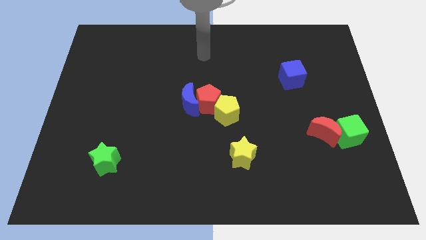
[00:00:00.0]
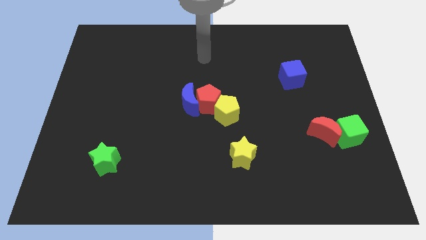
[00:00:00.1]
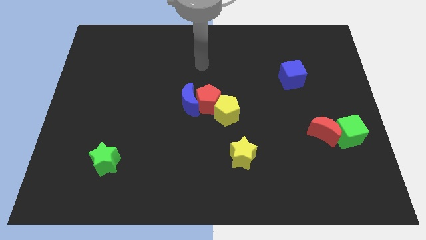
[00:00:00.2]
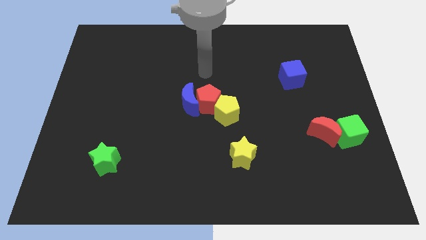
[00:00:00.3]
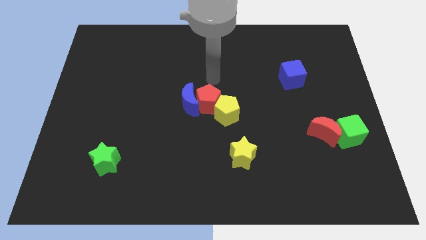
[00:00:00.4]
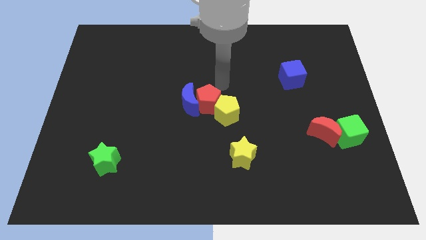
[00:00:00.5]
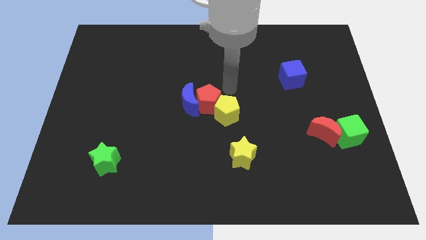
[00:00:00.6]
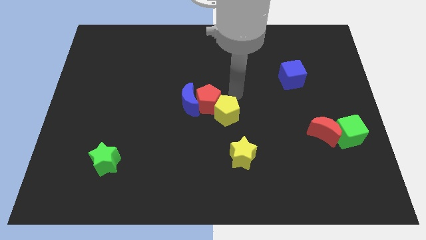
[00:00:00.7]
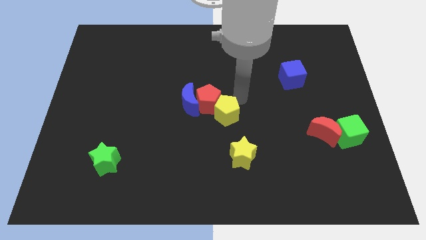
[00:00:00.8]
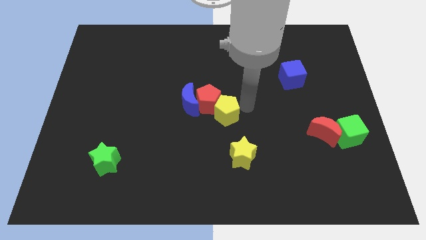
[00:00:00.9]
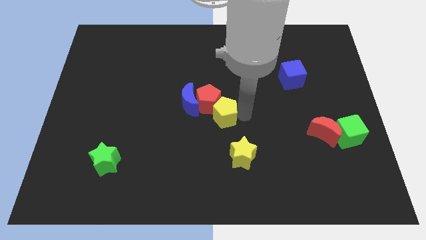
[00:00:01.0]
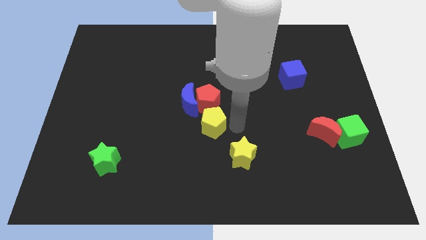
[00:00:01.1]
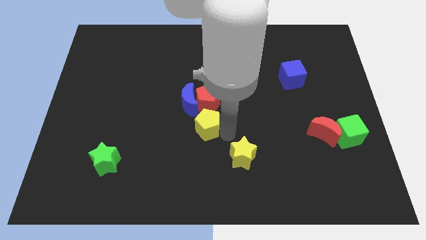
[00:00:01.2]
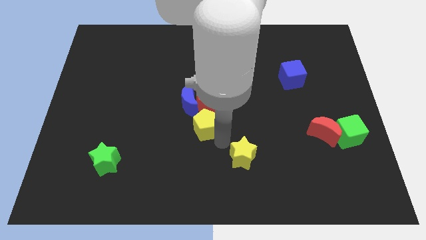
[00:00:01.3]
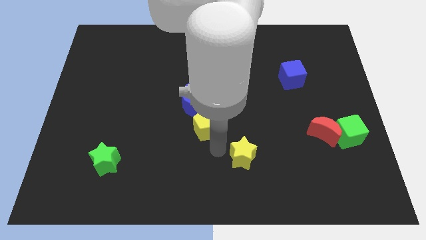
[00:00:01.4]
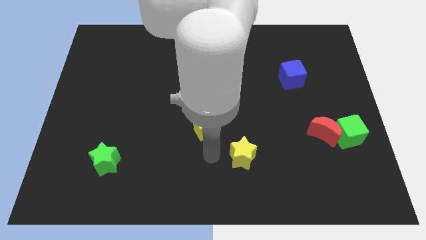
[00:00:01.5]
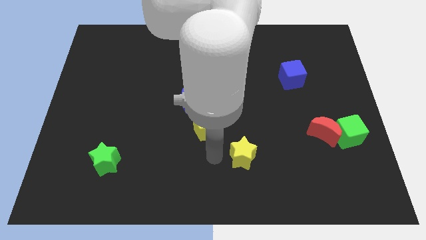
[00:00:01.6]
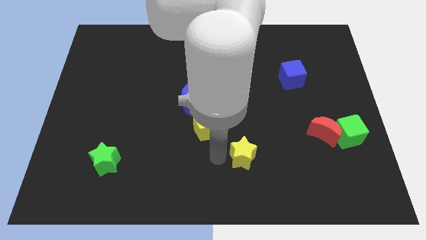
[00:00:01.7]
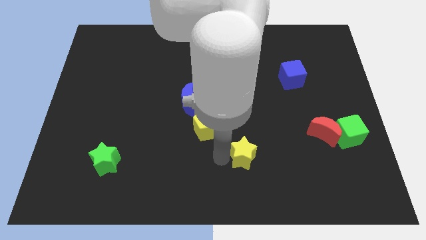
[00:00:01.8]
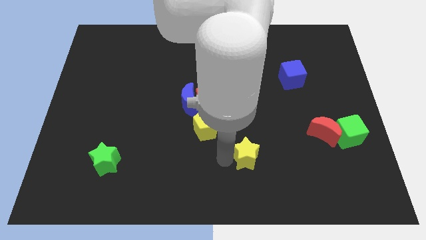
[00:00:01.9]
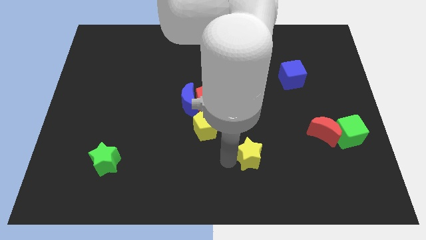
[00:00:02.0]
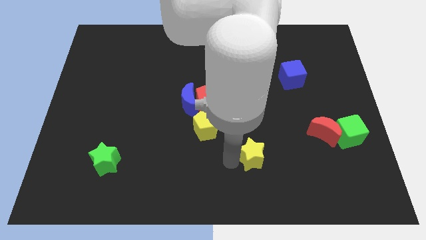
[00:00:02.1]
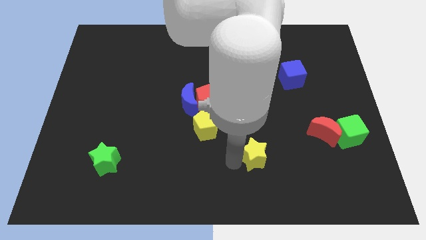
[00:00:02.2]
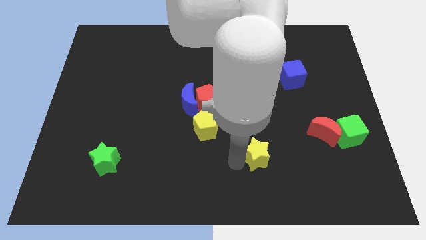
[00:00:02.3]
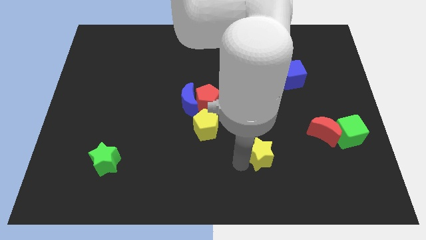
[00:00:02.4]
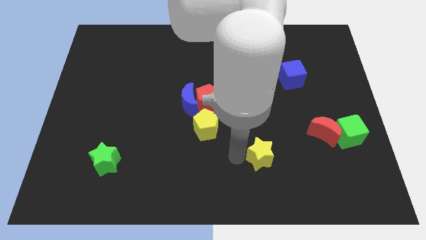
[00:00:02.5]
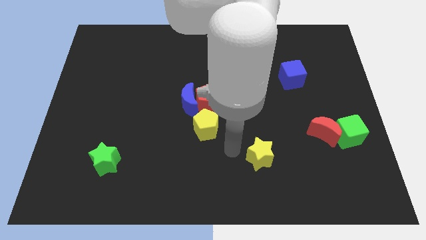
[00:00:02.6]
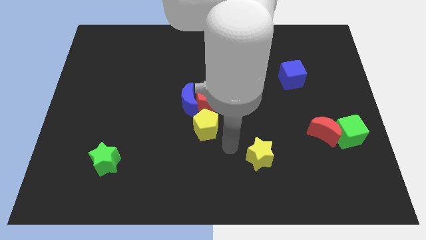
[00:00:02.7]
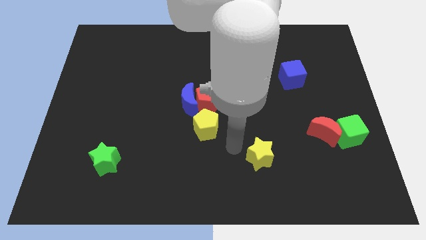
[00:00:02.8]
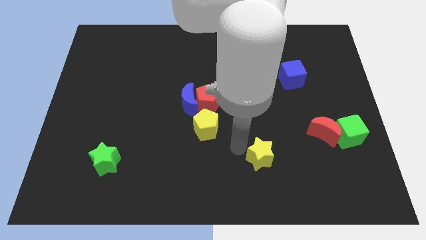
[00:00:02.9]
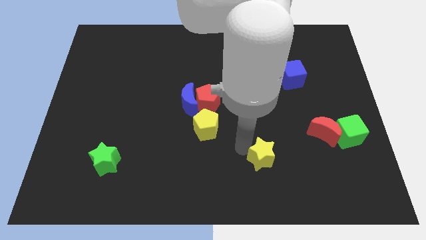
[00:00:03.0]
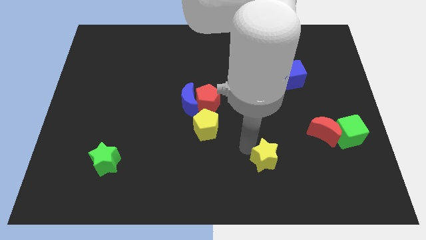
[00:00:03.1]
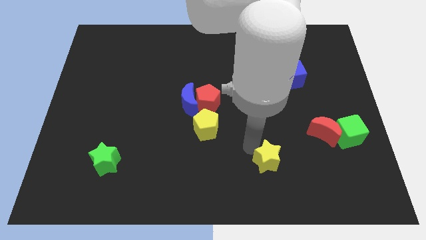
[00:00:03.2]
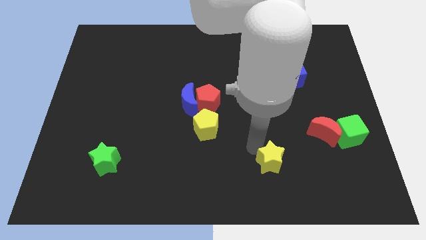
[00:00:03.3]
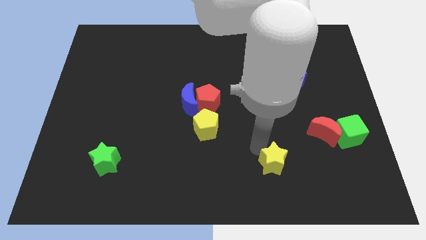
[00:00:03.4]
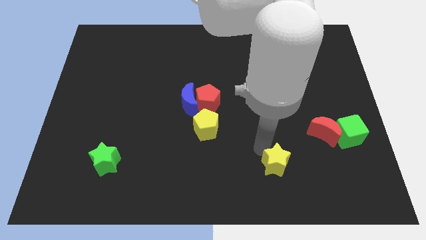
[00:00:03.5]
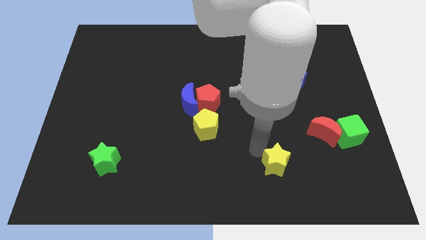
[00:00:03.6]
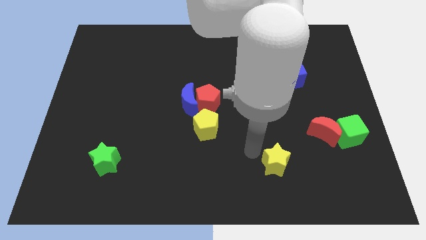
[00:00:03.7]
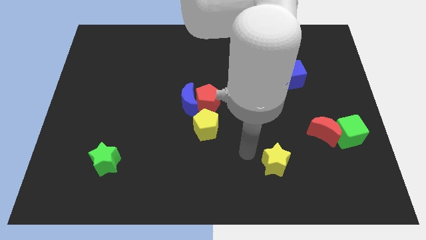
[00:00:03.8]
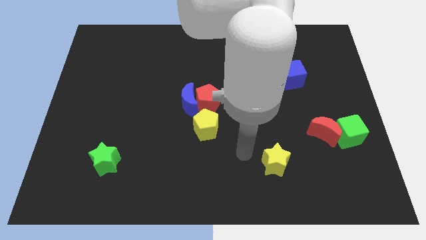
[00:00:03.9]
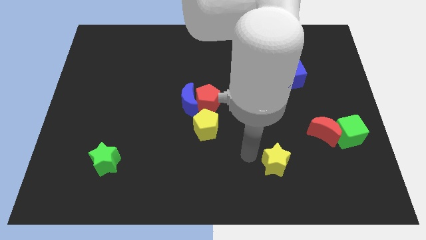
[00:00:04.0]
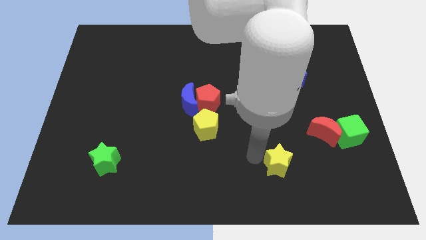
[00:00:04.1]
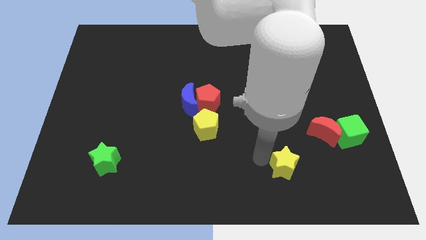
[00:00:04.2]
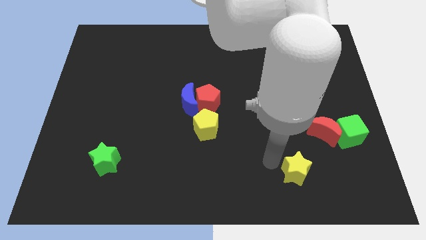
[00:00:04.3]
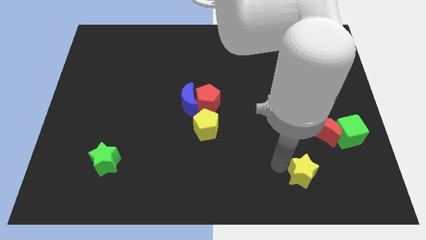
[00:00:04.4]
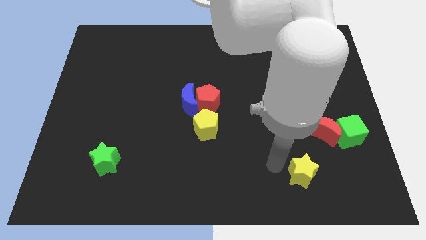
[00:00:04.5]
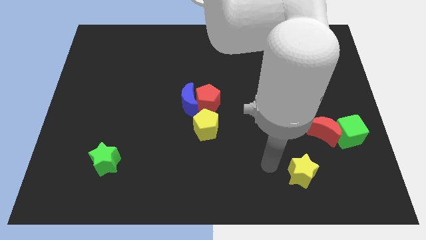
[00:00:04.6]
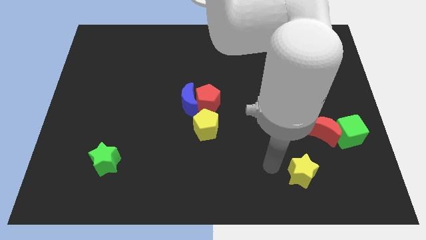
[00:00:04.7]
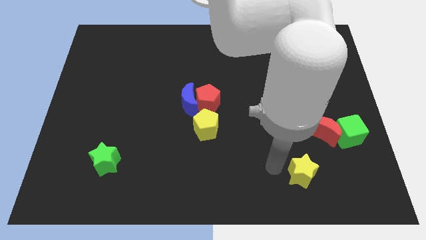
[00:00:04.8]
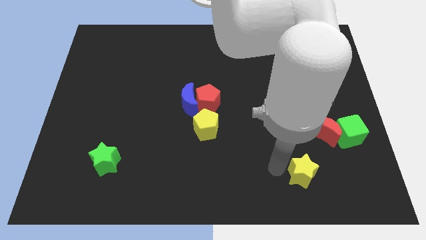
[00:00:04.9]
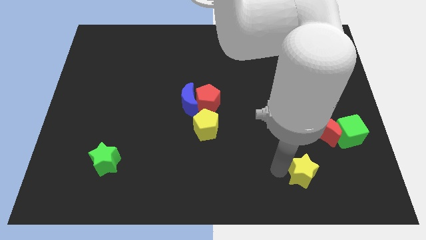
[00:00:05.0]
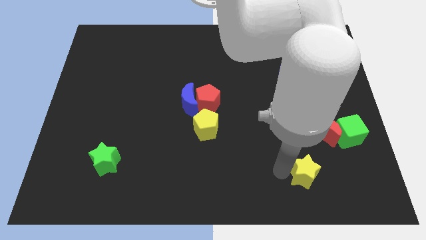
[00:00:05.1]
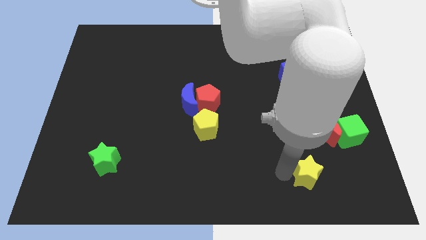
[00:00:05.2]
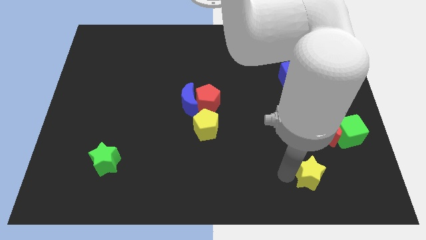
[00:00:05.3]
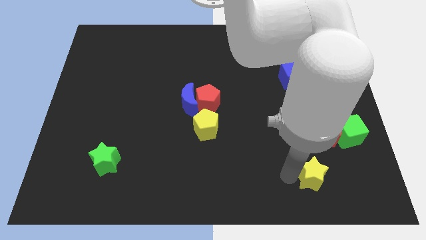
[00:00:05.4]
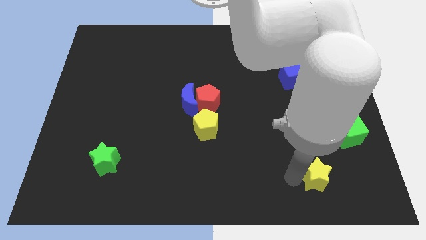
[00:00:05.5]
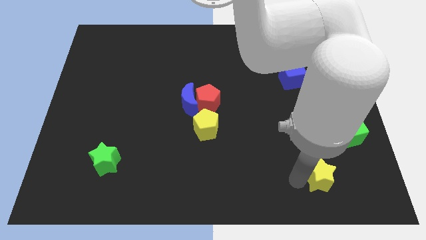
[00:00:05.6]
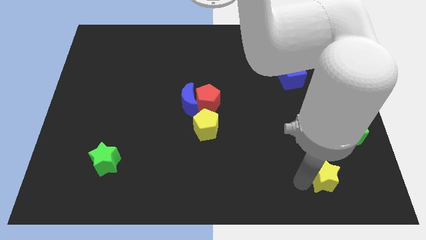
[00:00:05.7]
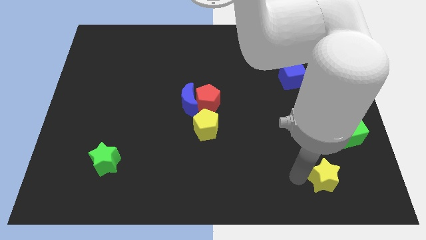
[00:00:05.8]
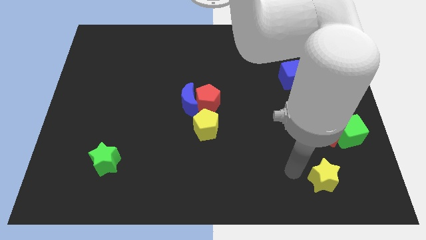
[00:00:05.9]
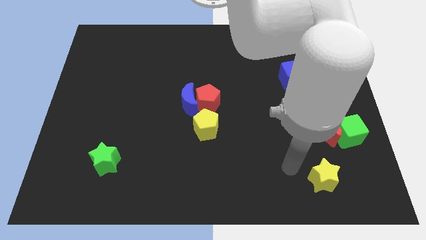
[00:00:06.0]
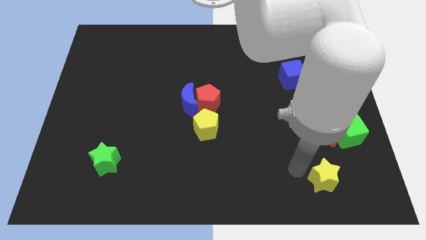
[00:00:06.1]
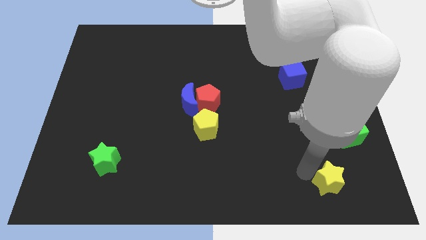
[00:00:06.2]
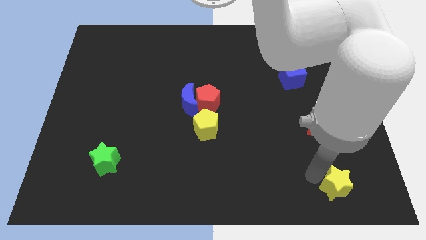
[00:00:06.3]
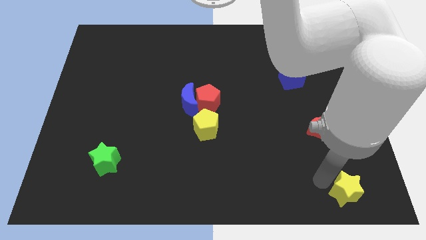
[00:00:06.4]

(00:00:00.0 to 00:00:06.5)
slide the yellow star to the bottom right

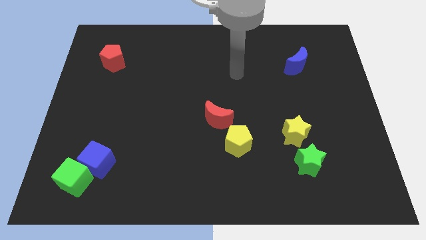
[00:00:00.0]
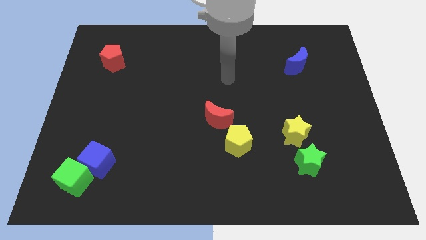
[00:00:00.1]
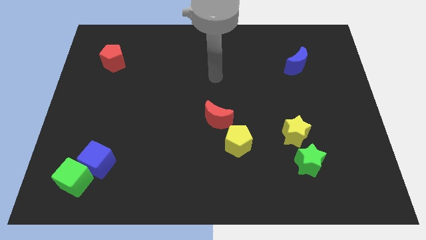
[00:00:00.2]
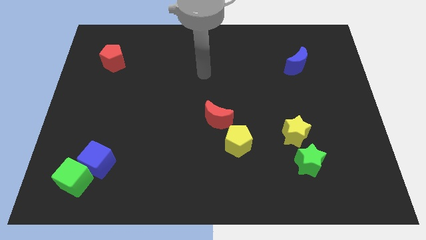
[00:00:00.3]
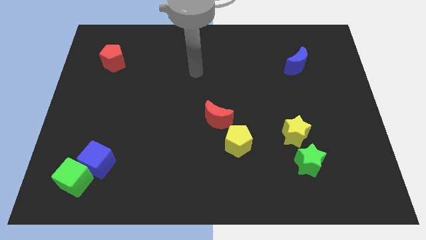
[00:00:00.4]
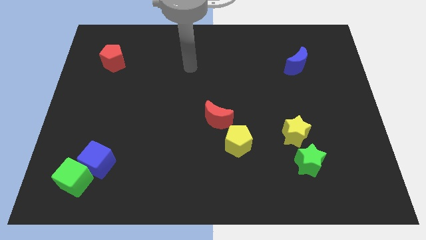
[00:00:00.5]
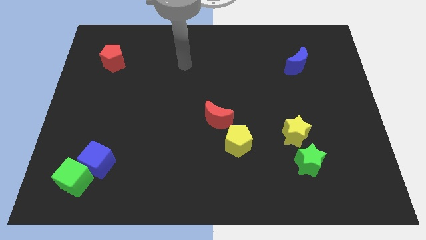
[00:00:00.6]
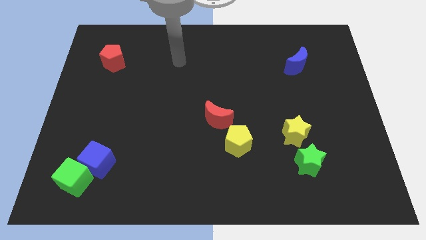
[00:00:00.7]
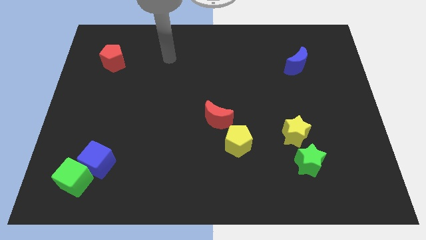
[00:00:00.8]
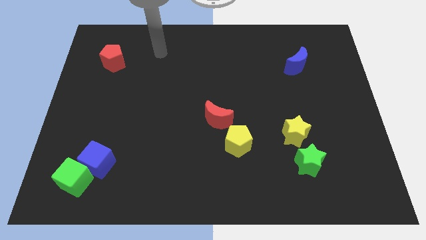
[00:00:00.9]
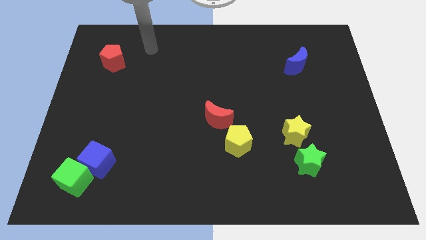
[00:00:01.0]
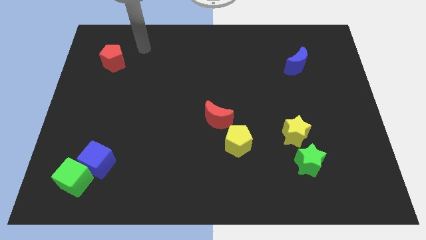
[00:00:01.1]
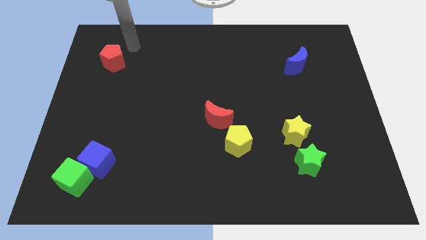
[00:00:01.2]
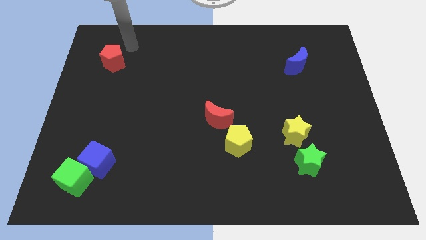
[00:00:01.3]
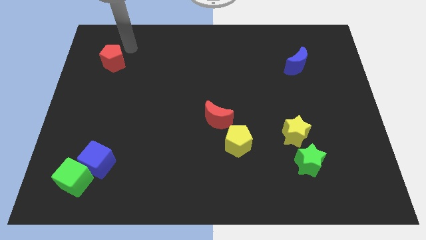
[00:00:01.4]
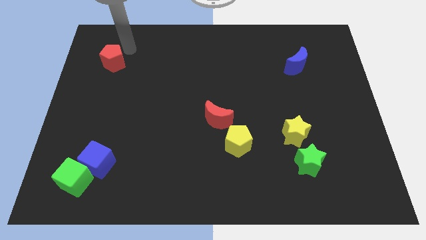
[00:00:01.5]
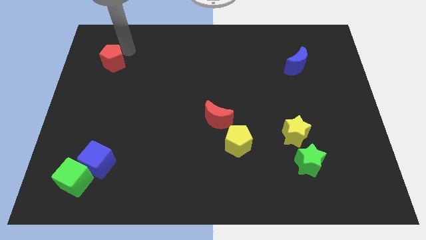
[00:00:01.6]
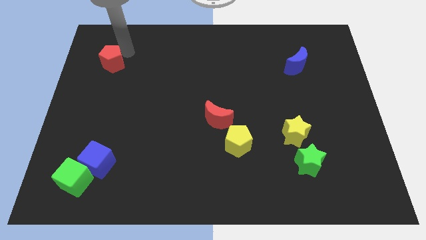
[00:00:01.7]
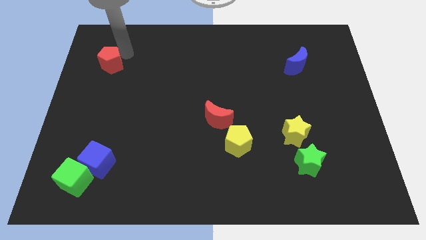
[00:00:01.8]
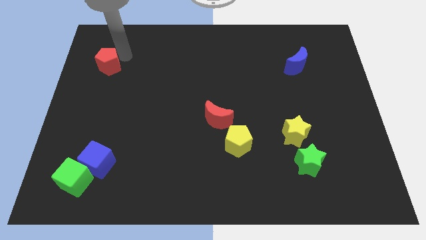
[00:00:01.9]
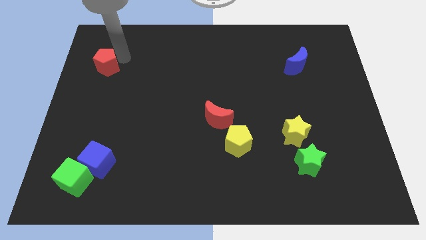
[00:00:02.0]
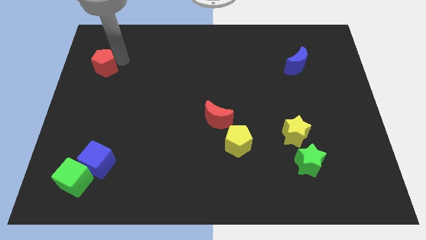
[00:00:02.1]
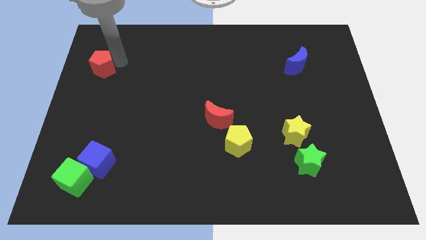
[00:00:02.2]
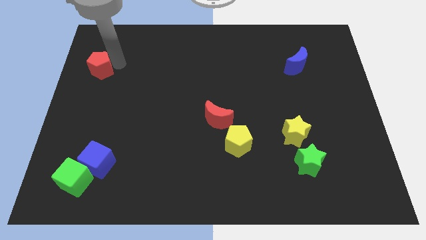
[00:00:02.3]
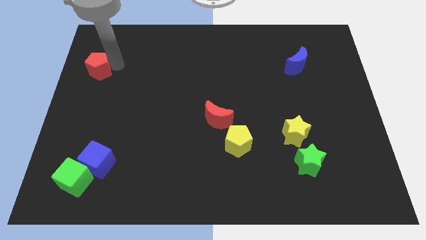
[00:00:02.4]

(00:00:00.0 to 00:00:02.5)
slide the red pentagon to the center left
